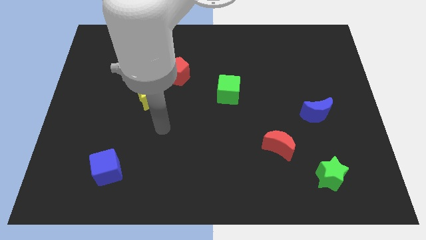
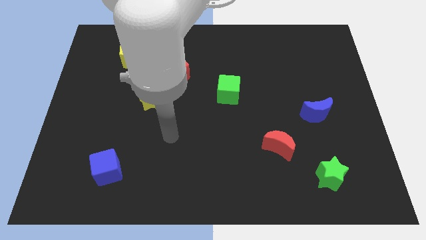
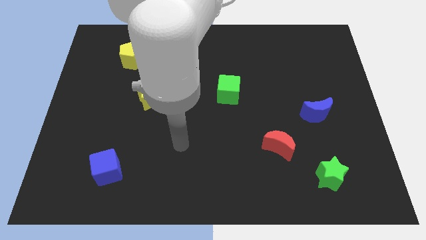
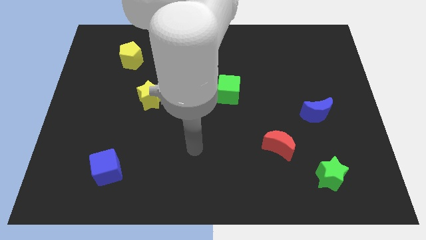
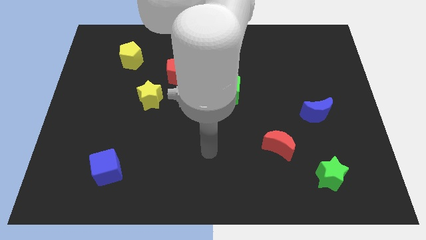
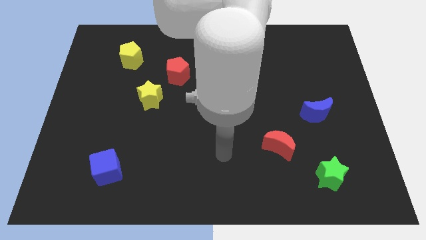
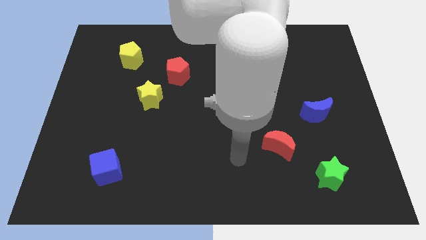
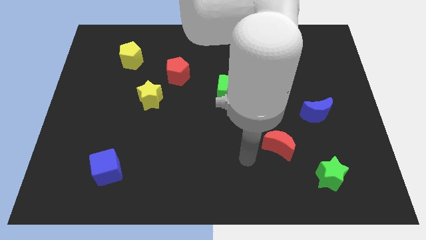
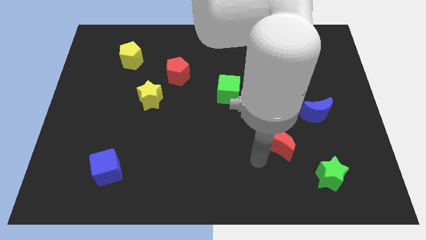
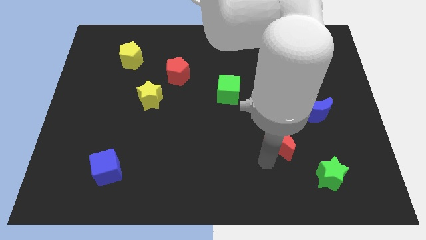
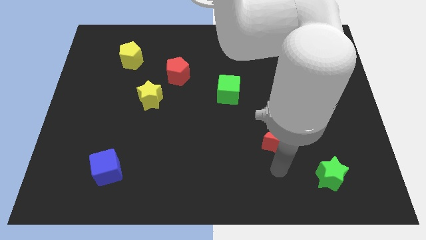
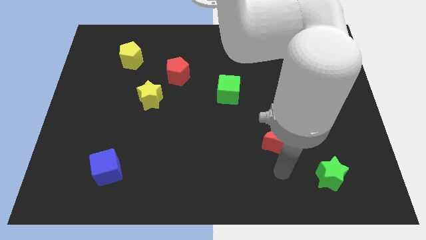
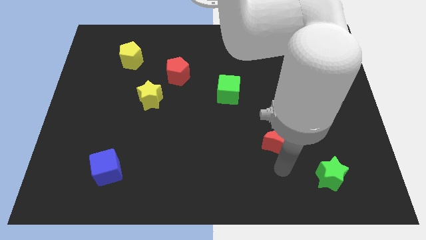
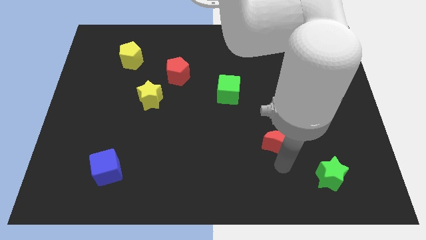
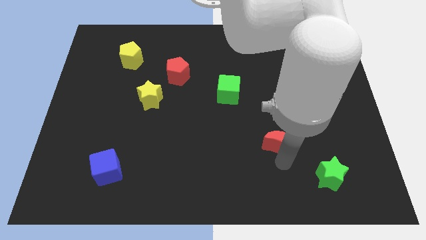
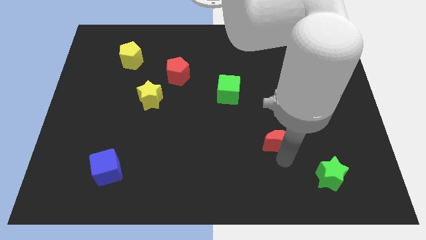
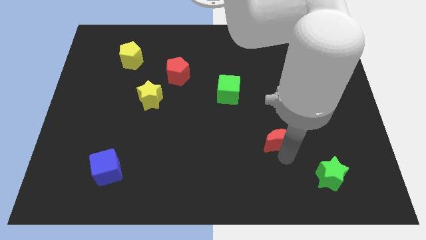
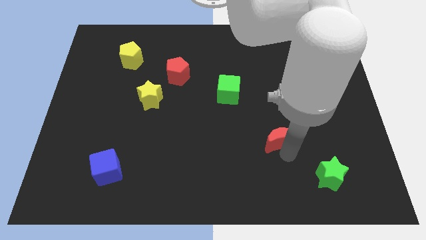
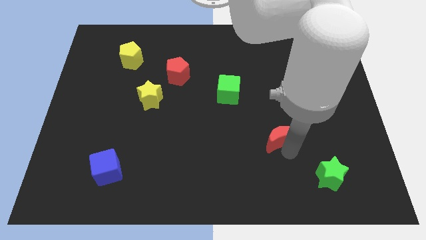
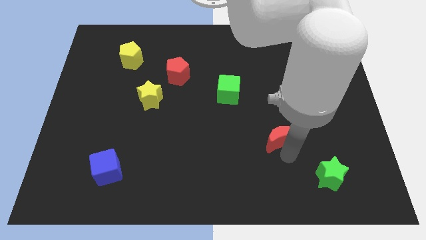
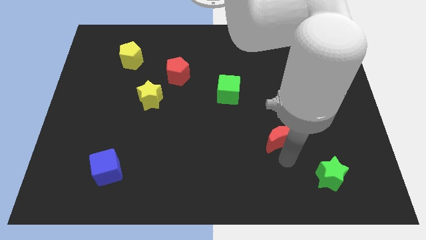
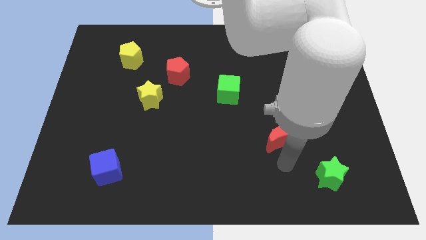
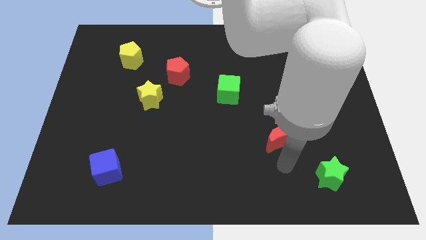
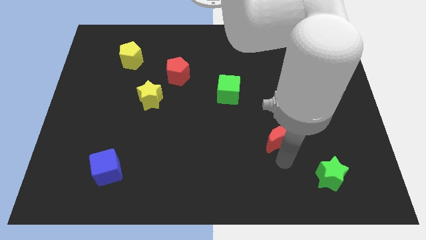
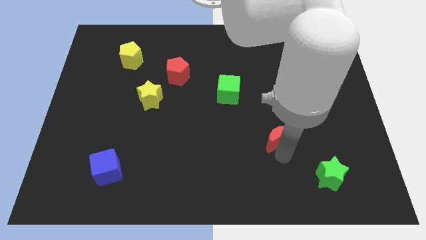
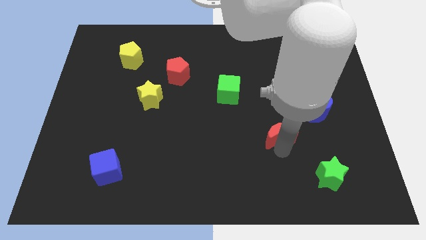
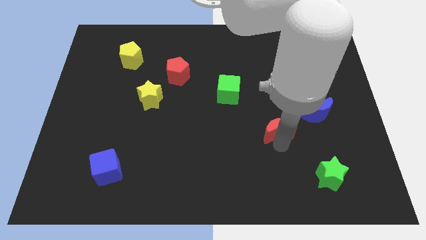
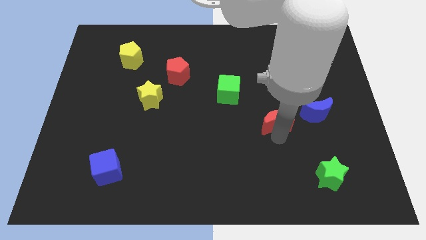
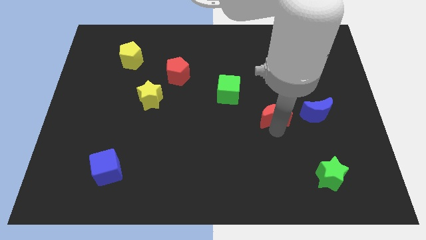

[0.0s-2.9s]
slightly slide the red moon up

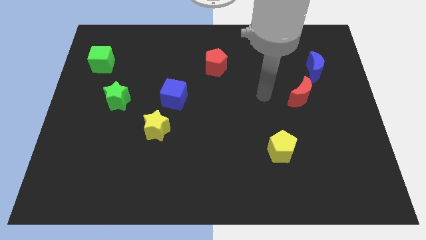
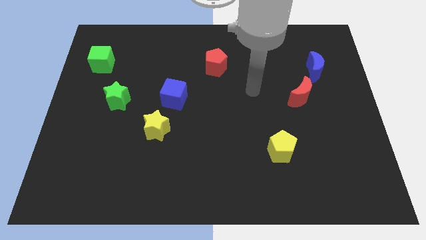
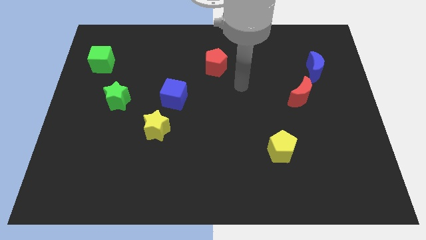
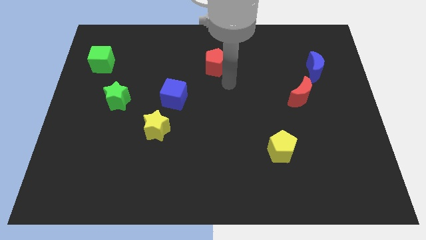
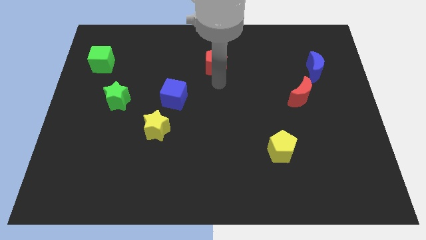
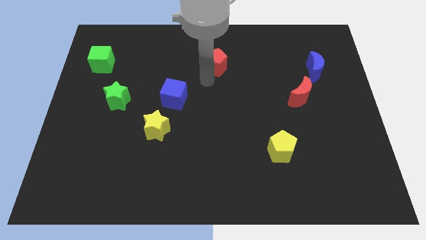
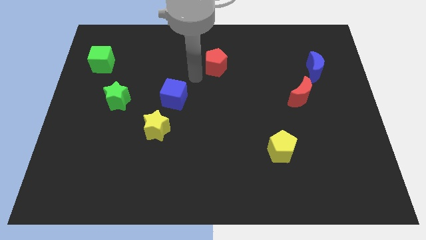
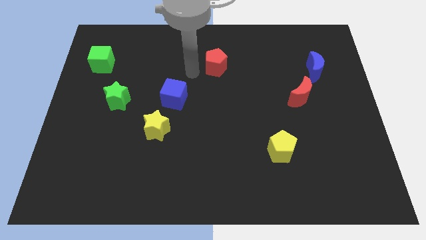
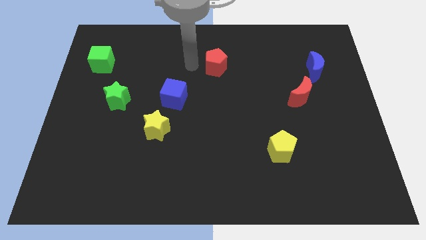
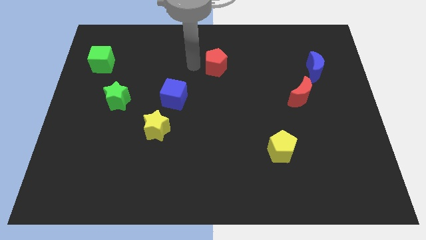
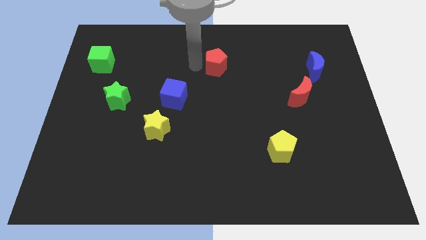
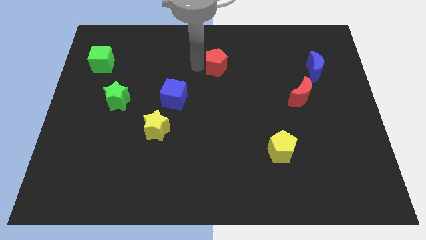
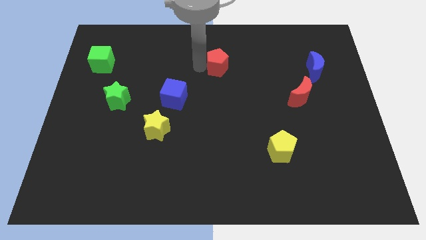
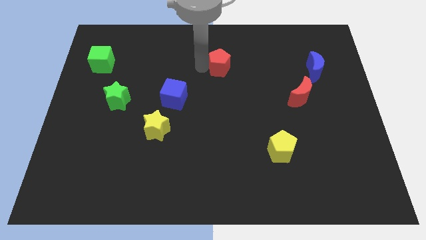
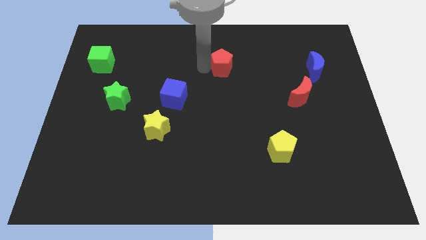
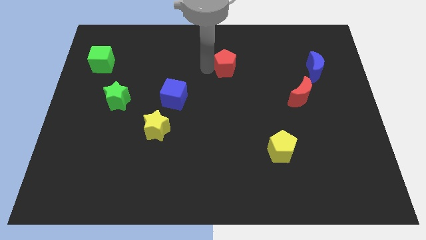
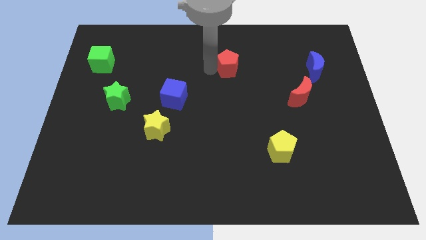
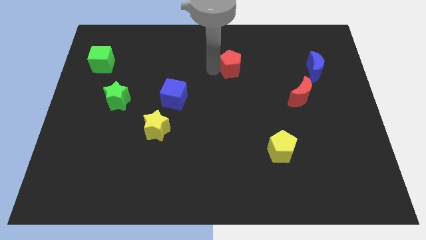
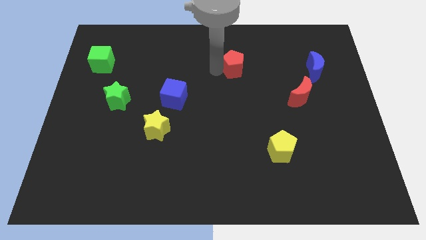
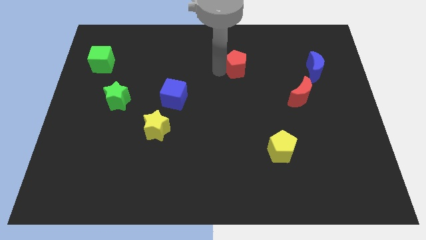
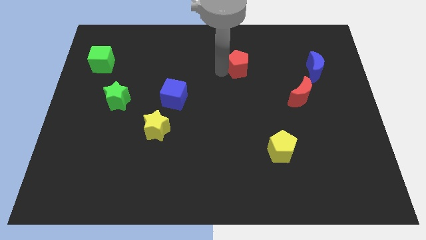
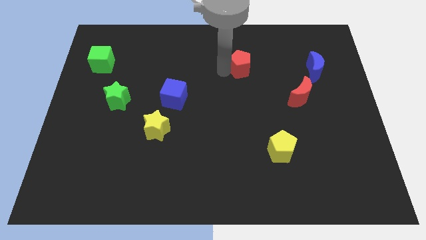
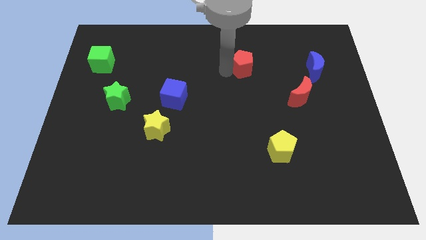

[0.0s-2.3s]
push the red pentagon to the right somewhat

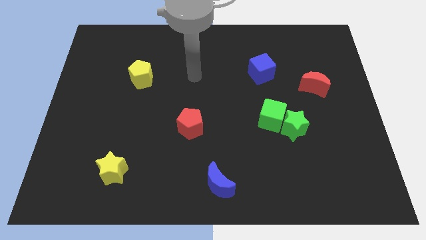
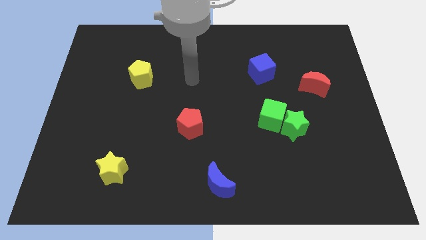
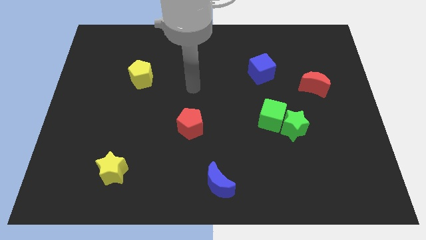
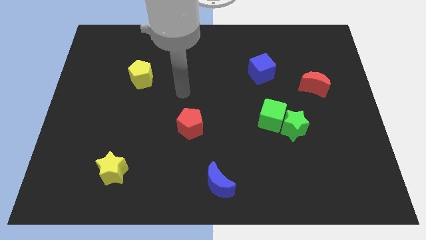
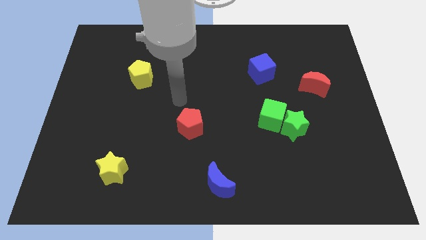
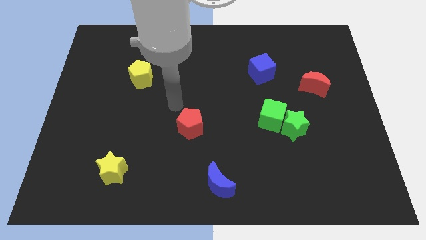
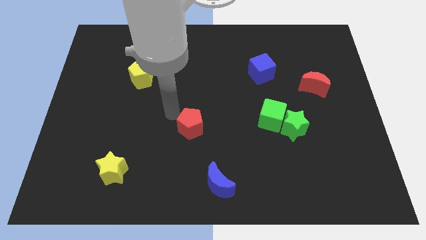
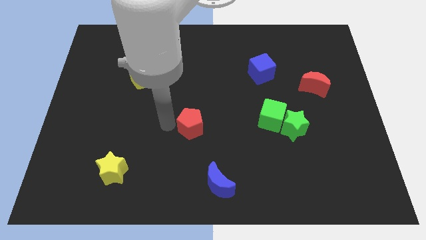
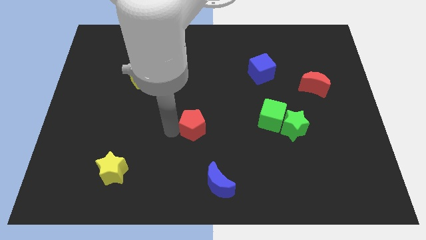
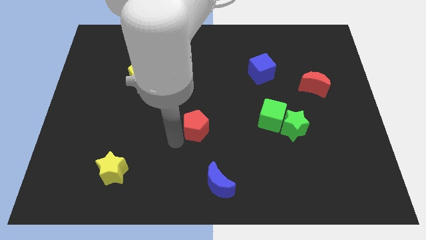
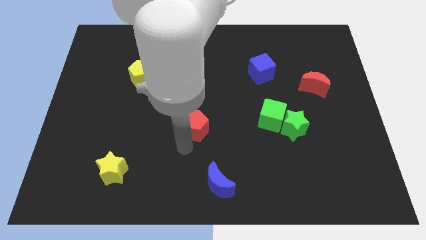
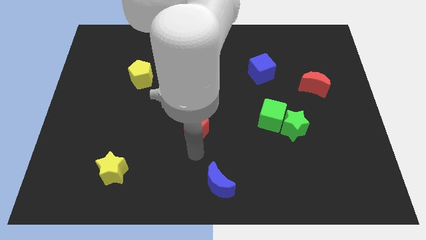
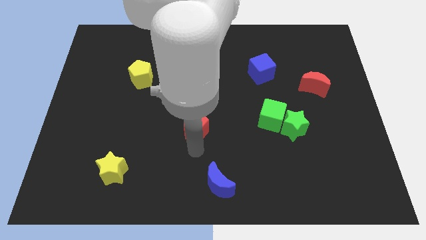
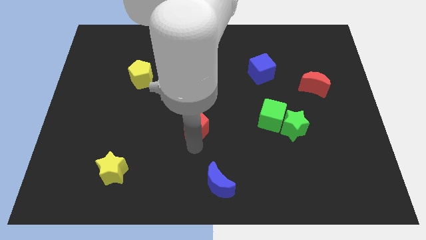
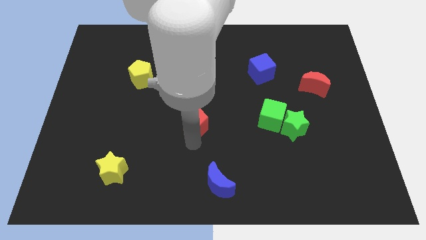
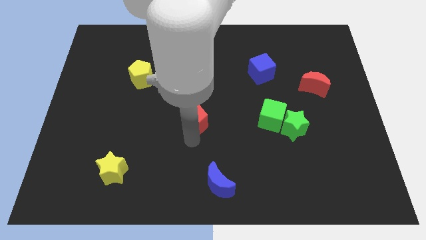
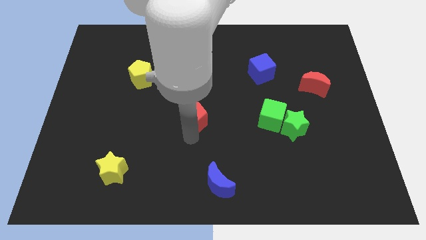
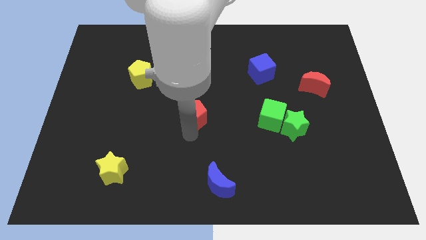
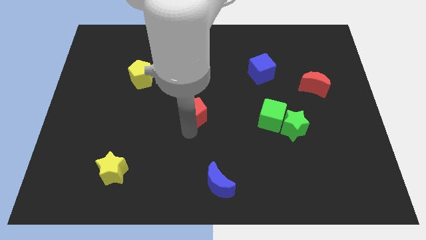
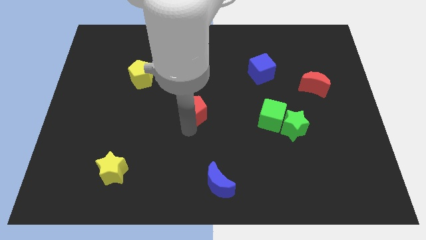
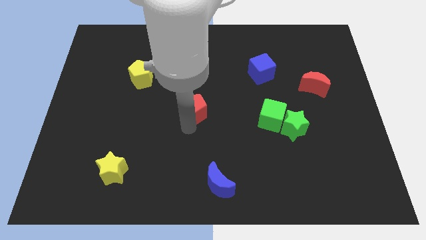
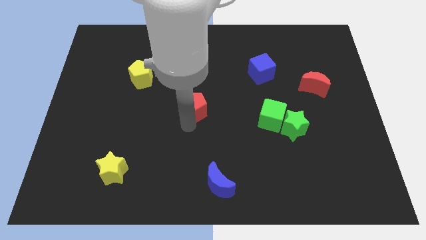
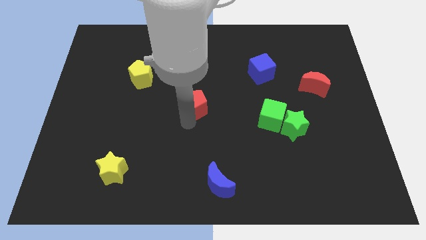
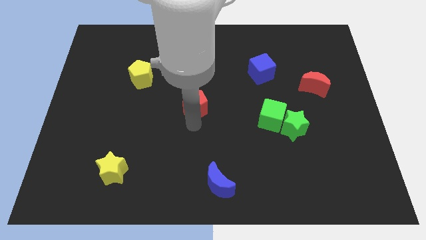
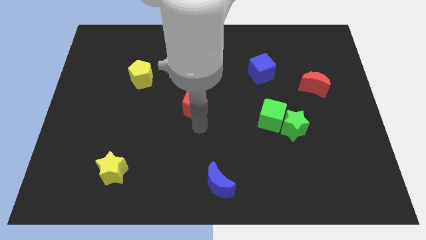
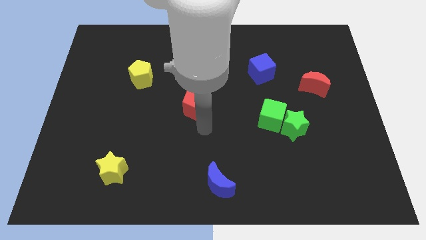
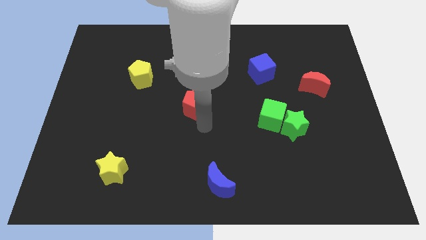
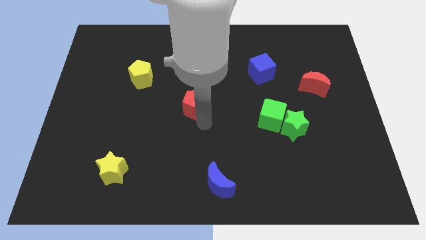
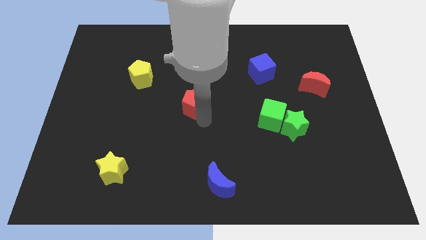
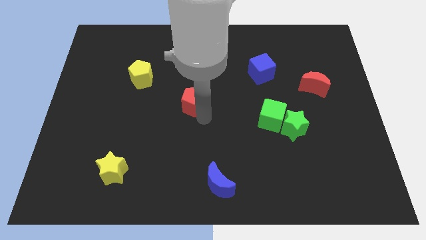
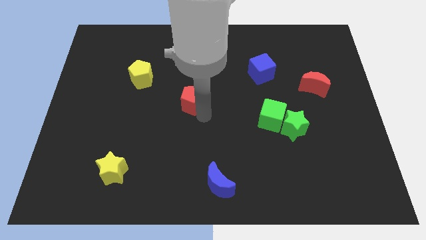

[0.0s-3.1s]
slightly move the red pentagon upwards
